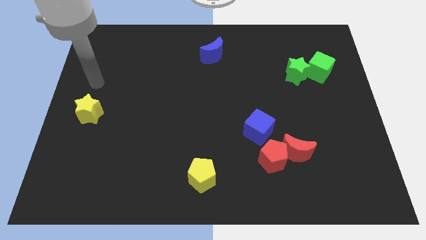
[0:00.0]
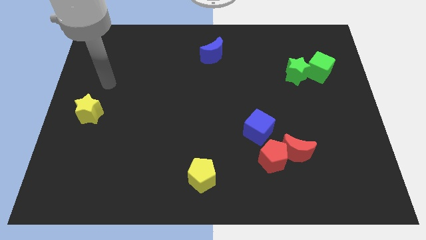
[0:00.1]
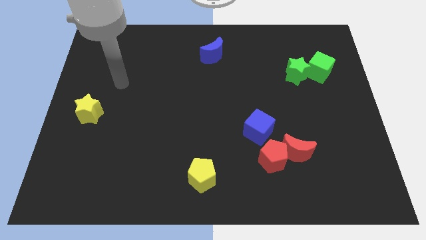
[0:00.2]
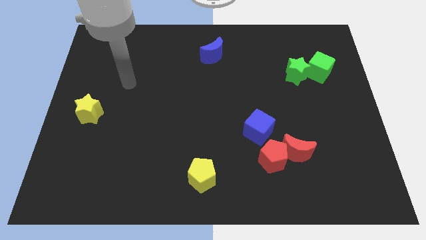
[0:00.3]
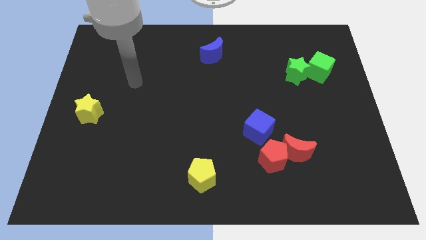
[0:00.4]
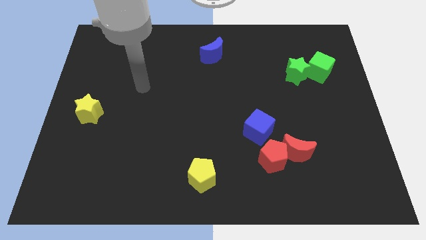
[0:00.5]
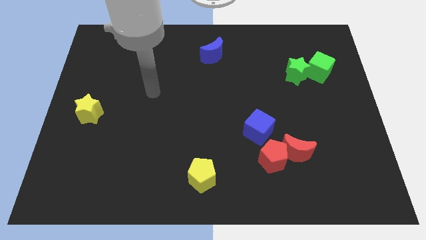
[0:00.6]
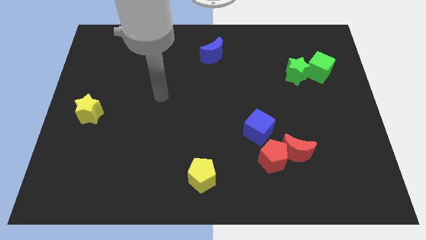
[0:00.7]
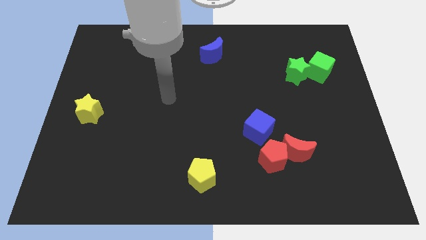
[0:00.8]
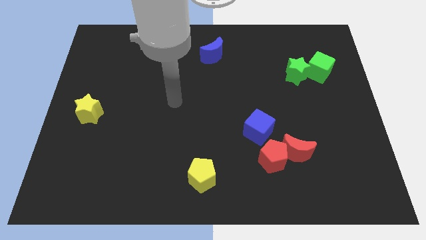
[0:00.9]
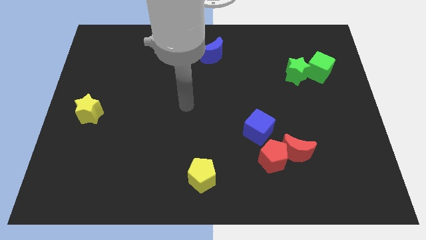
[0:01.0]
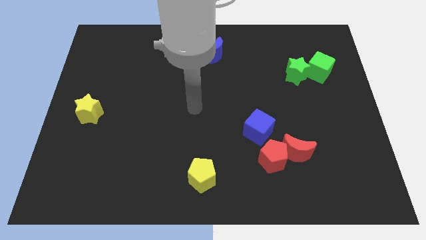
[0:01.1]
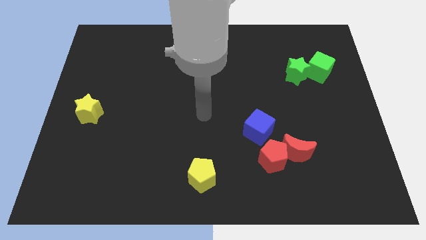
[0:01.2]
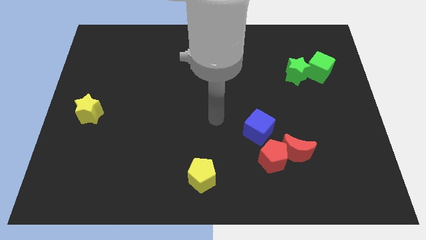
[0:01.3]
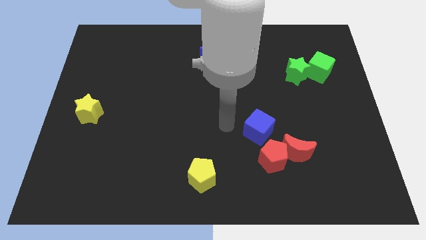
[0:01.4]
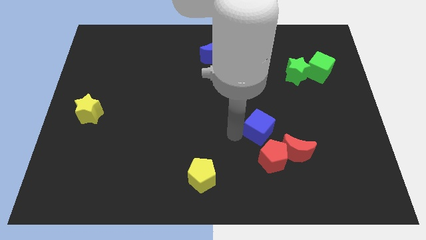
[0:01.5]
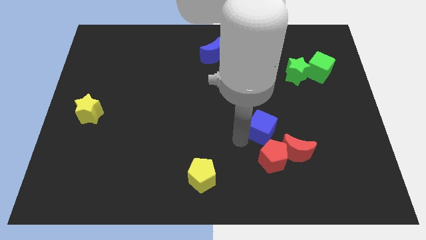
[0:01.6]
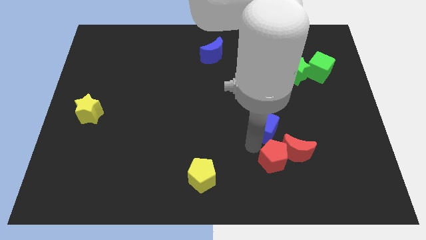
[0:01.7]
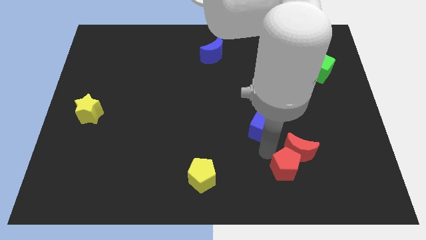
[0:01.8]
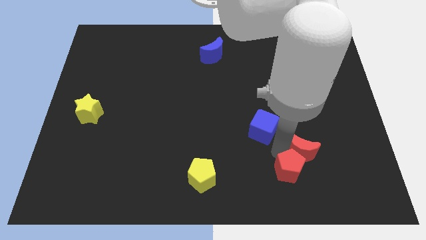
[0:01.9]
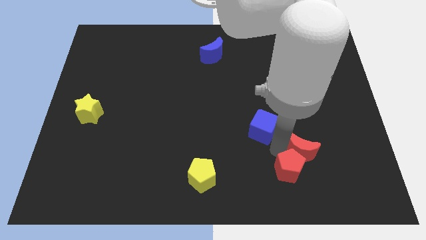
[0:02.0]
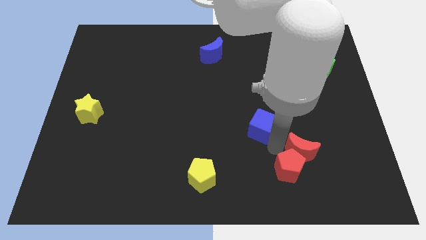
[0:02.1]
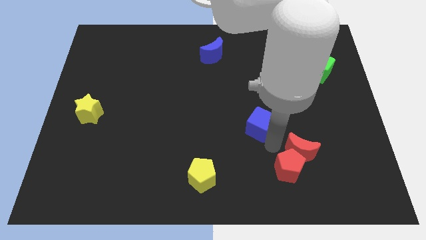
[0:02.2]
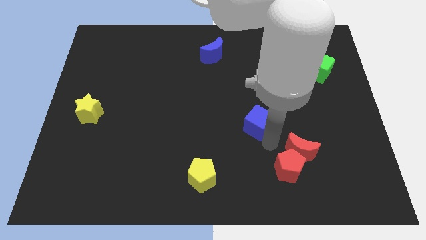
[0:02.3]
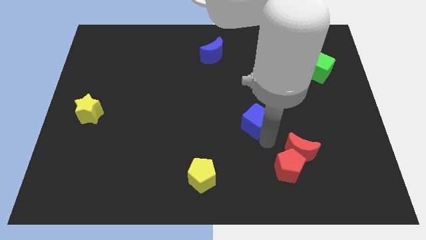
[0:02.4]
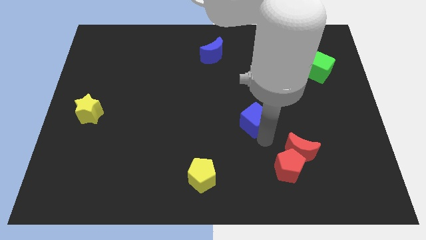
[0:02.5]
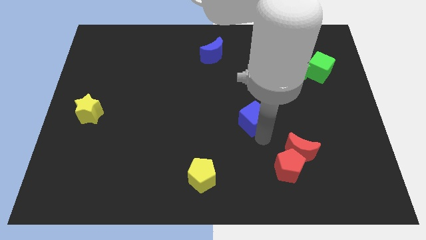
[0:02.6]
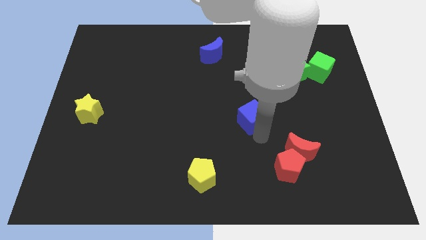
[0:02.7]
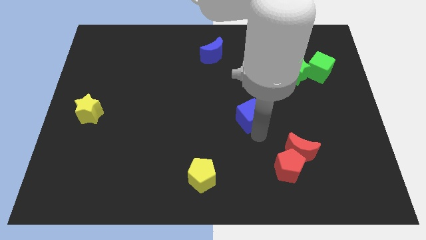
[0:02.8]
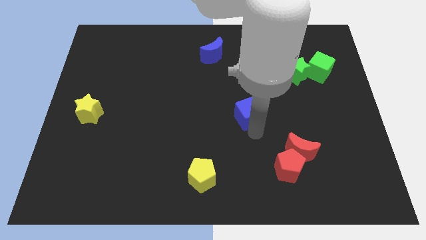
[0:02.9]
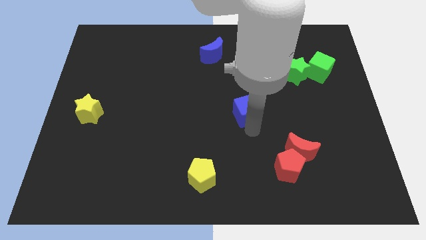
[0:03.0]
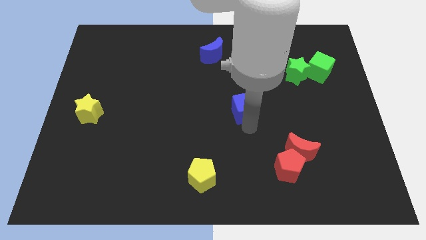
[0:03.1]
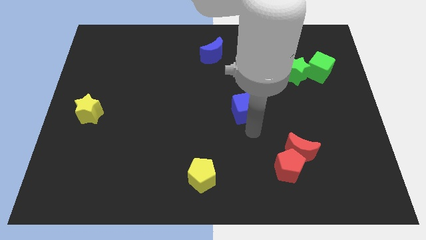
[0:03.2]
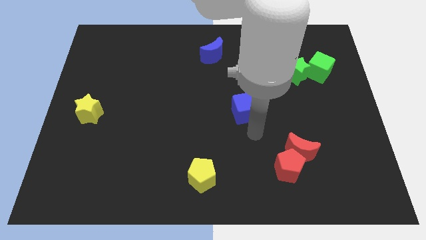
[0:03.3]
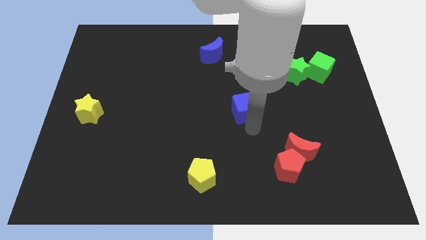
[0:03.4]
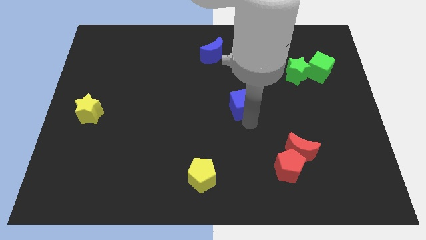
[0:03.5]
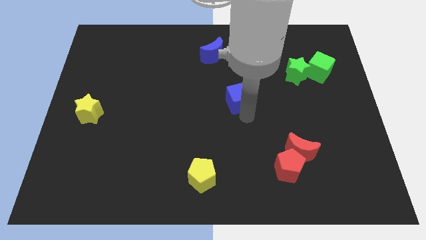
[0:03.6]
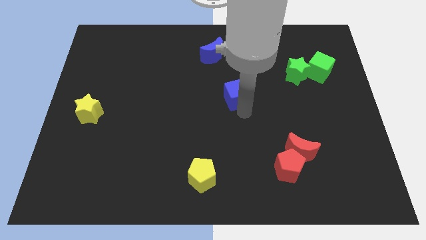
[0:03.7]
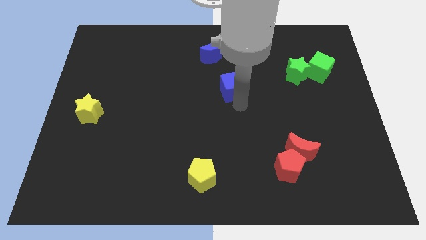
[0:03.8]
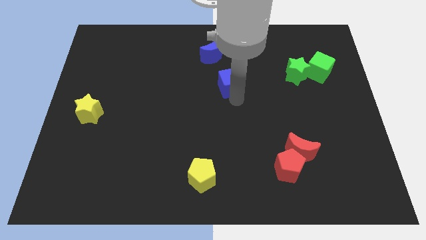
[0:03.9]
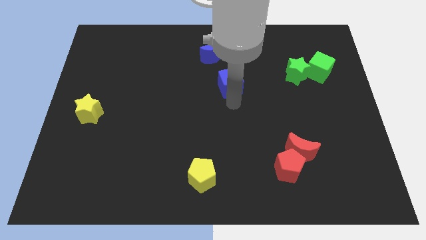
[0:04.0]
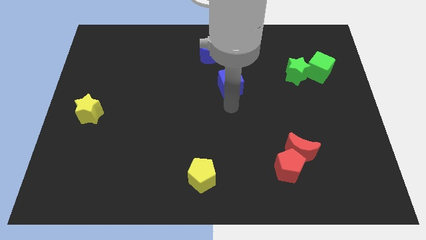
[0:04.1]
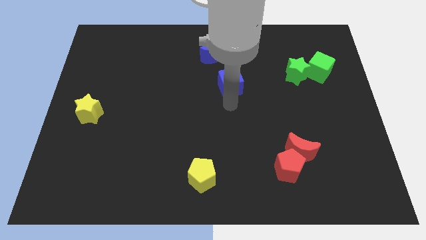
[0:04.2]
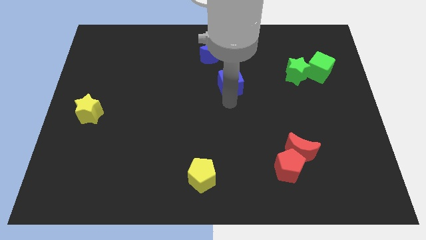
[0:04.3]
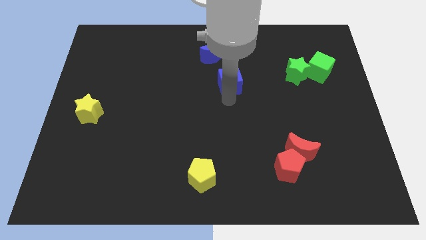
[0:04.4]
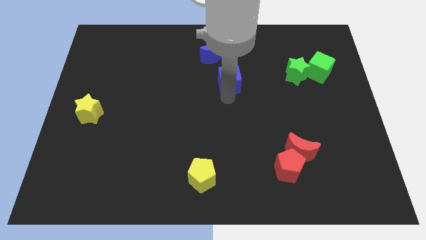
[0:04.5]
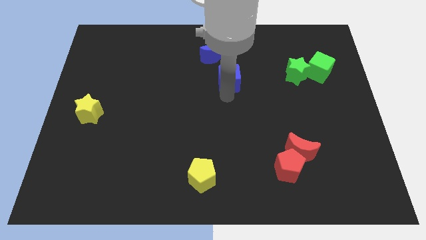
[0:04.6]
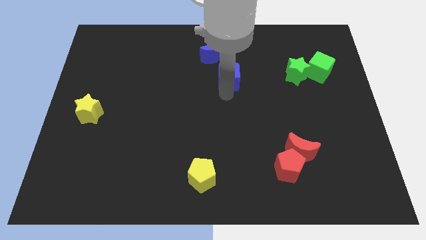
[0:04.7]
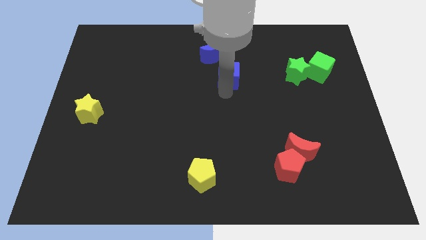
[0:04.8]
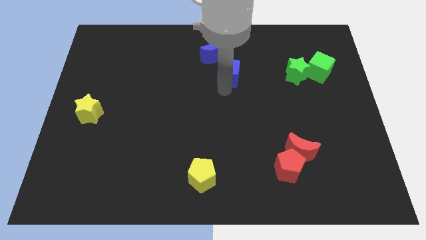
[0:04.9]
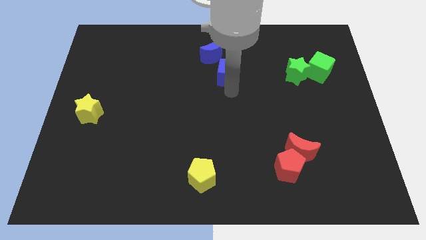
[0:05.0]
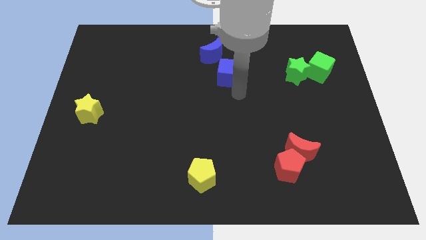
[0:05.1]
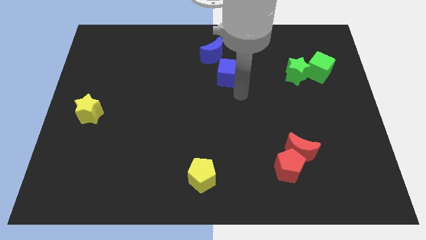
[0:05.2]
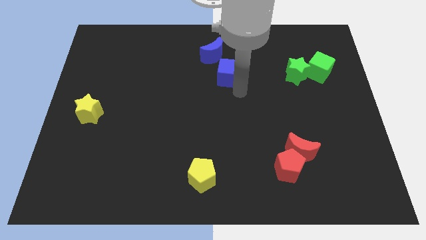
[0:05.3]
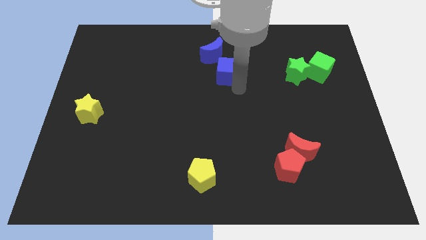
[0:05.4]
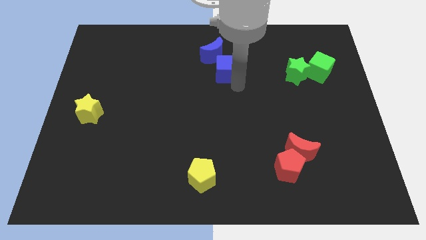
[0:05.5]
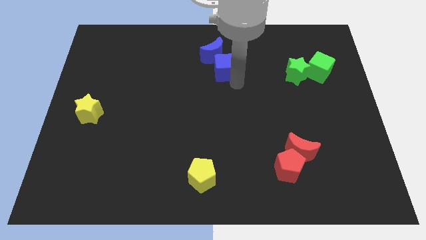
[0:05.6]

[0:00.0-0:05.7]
push the blue cube to the blue moon

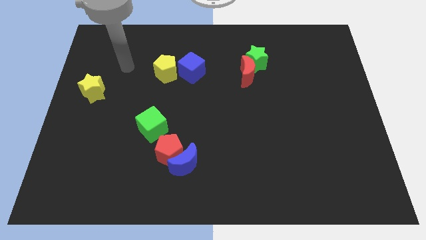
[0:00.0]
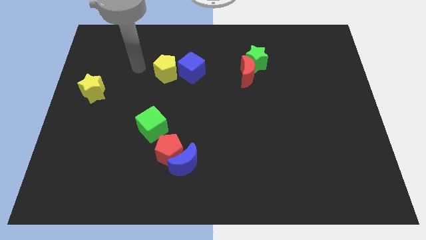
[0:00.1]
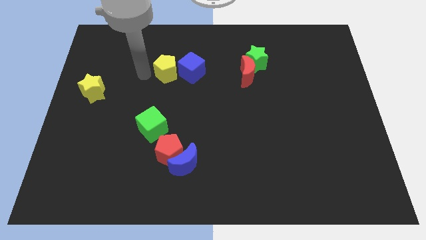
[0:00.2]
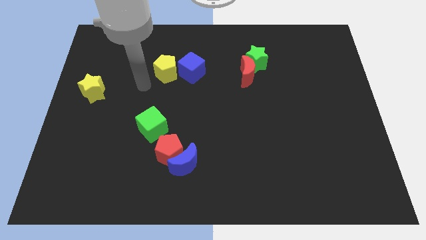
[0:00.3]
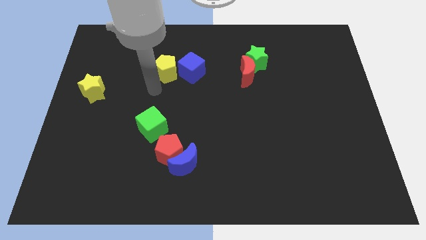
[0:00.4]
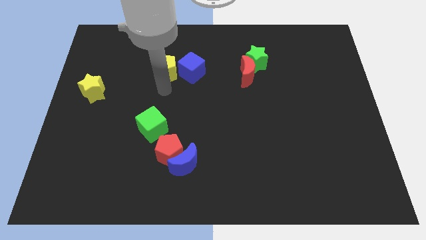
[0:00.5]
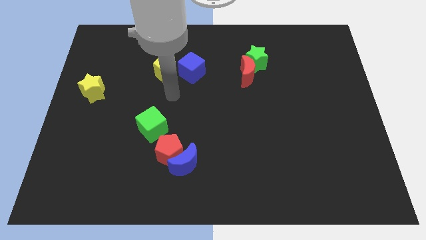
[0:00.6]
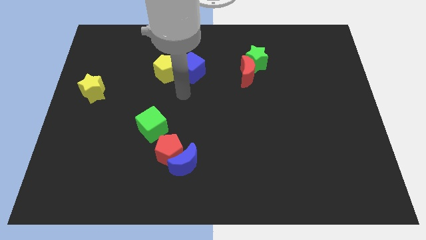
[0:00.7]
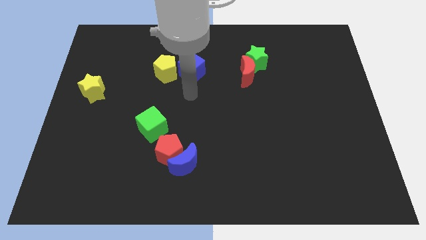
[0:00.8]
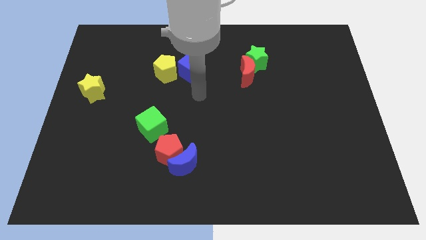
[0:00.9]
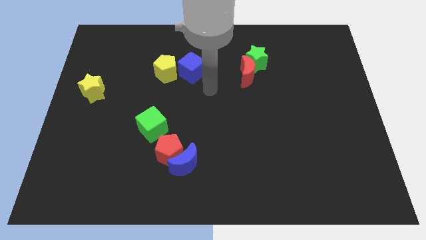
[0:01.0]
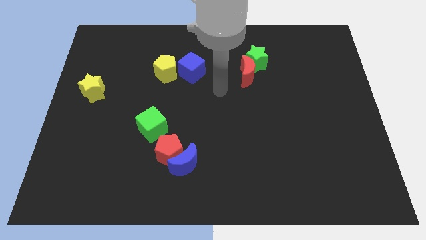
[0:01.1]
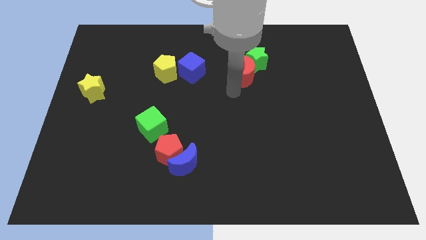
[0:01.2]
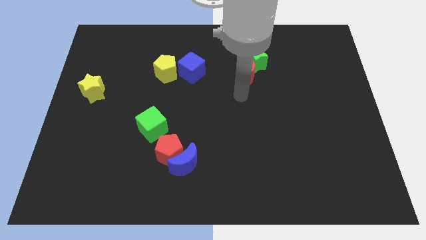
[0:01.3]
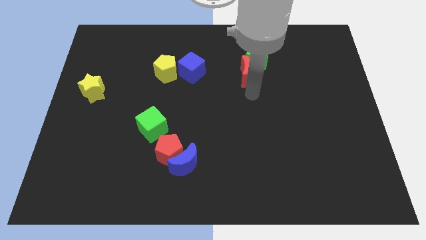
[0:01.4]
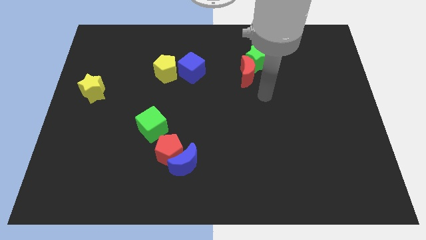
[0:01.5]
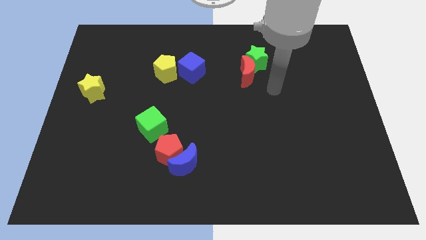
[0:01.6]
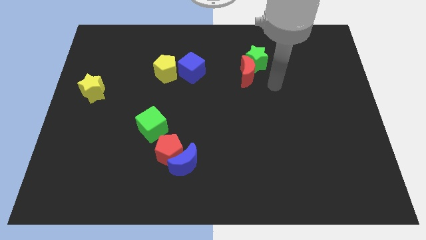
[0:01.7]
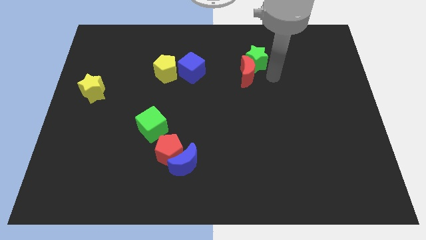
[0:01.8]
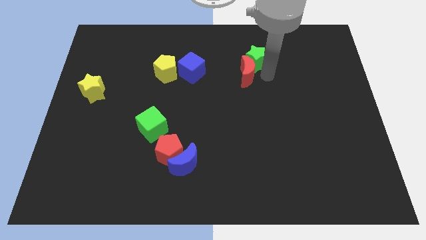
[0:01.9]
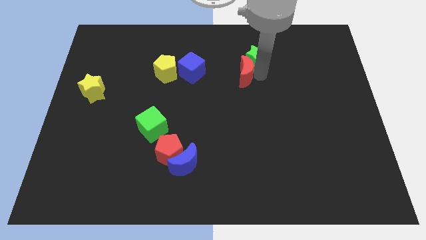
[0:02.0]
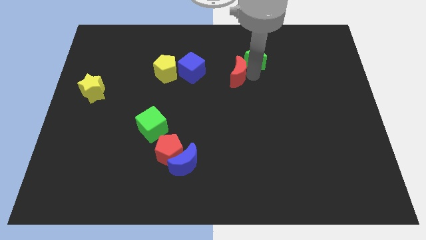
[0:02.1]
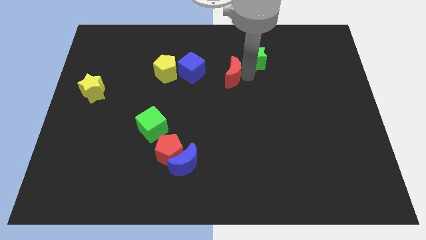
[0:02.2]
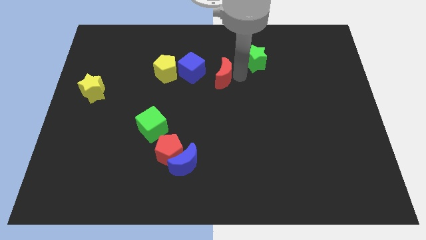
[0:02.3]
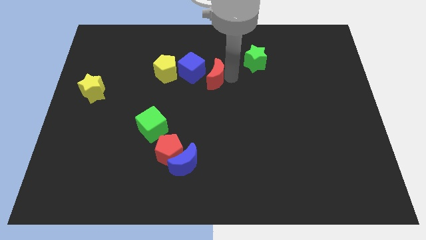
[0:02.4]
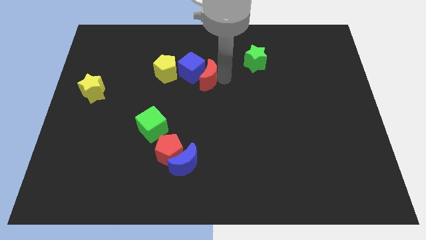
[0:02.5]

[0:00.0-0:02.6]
push the red moon to the blue cube
